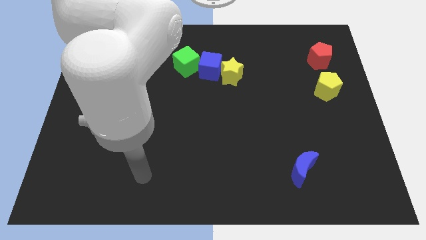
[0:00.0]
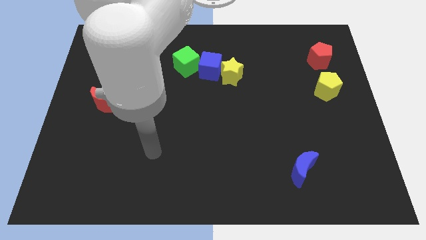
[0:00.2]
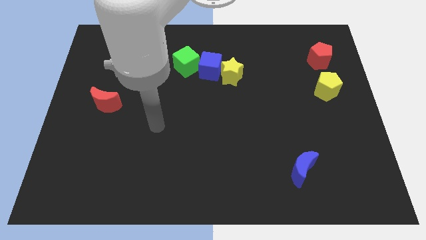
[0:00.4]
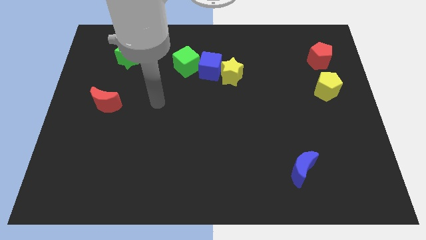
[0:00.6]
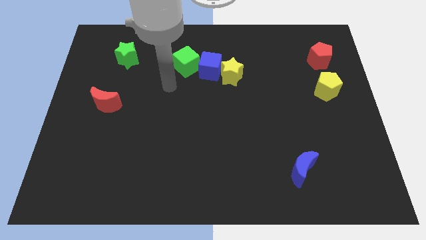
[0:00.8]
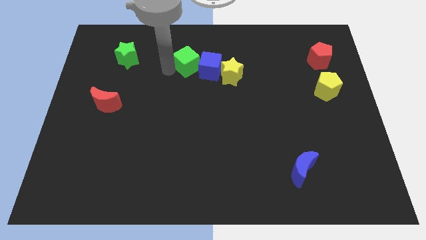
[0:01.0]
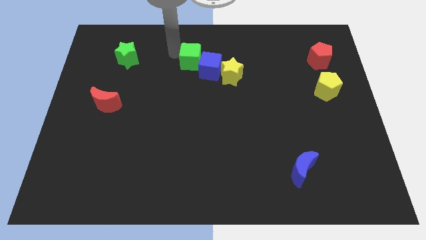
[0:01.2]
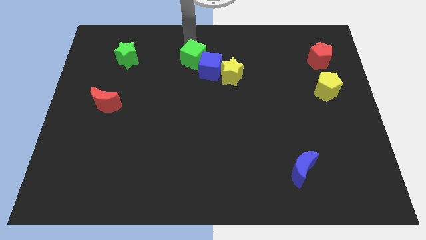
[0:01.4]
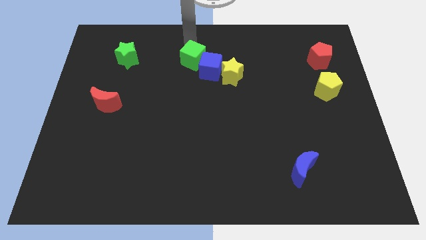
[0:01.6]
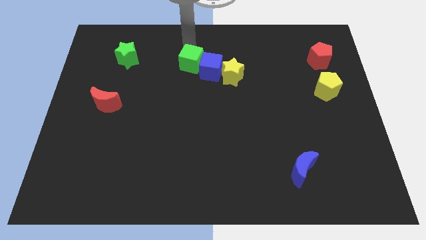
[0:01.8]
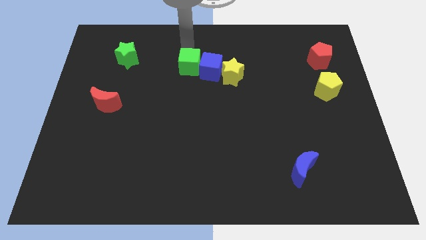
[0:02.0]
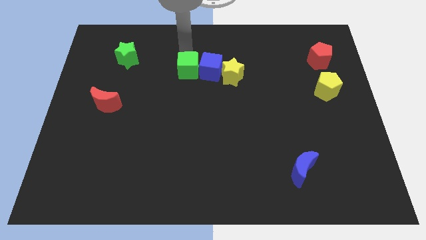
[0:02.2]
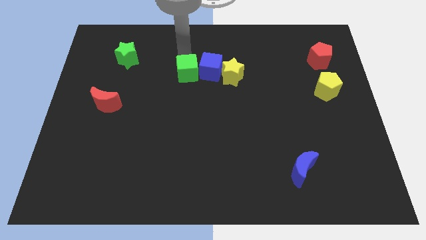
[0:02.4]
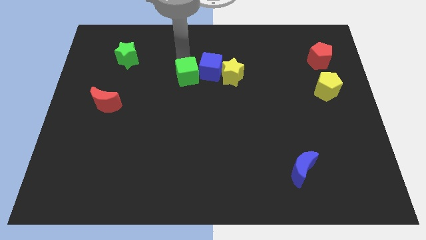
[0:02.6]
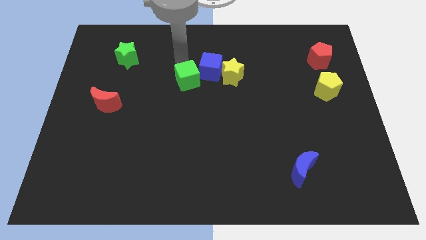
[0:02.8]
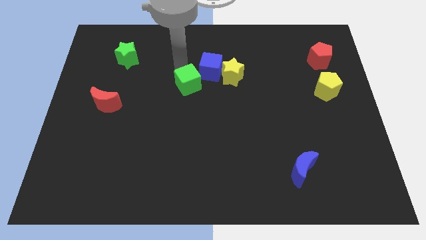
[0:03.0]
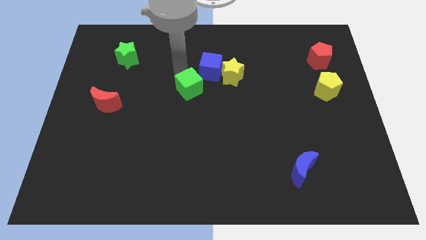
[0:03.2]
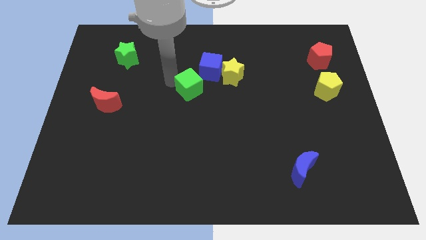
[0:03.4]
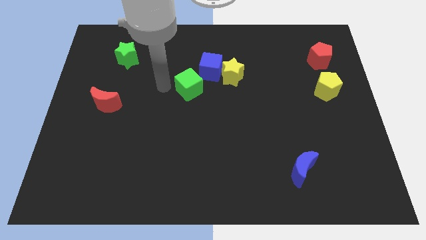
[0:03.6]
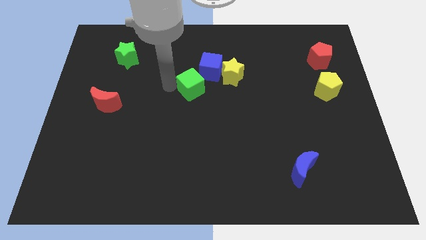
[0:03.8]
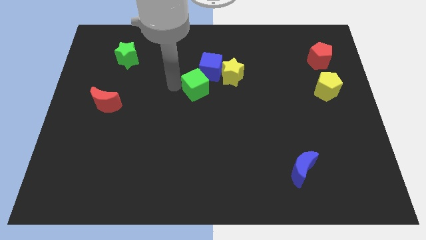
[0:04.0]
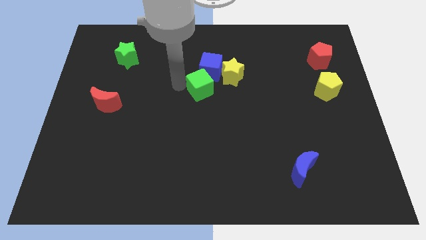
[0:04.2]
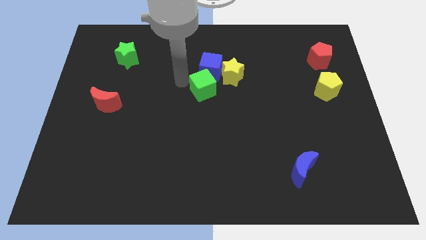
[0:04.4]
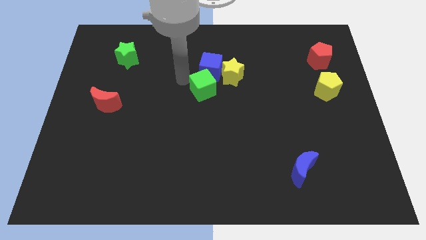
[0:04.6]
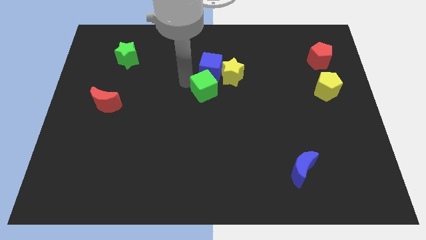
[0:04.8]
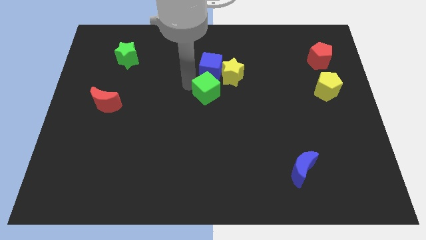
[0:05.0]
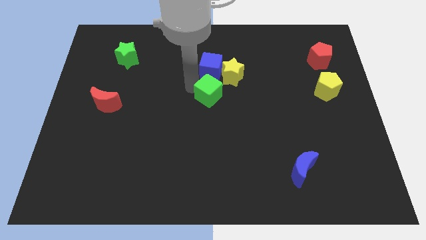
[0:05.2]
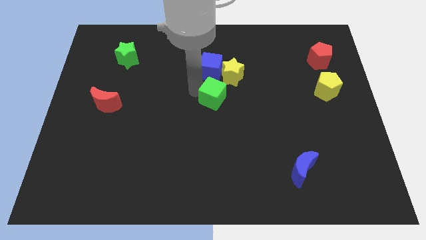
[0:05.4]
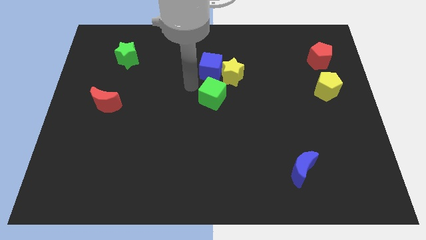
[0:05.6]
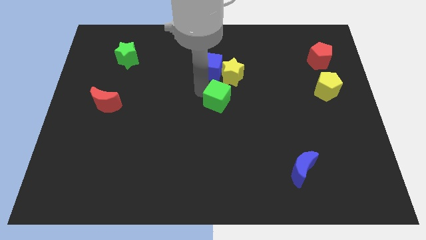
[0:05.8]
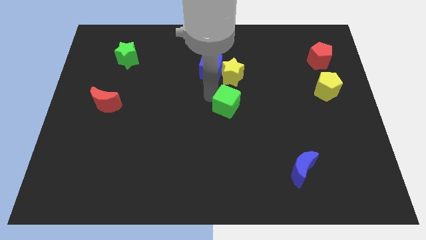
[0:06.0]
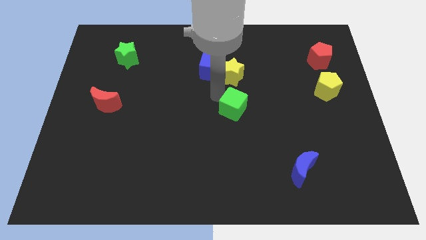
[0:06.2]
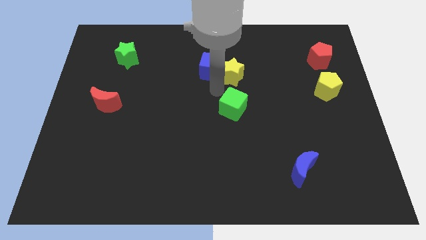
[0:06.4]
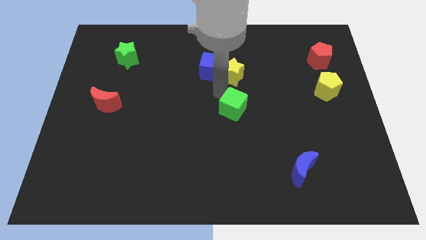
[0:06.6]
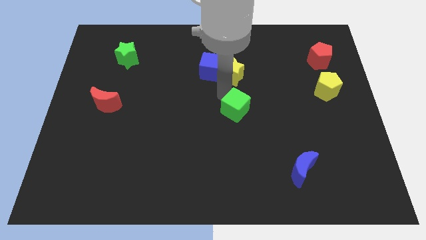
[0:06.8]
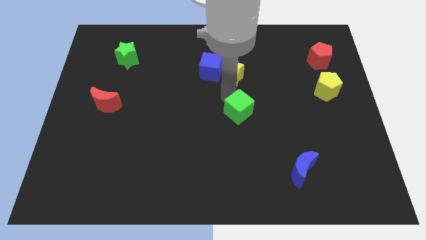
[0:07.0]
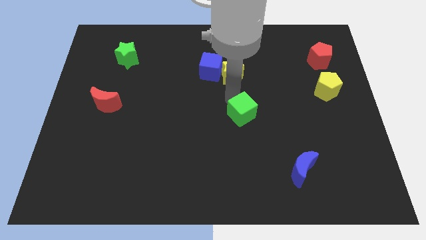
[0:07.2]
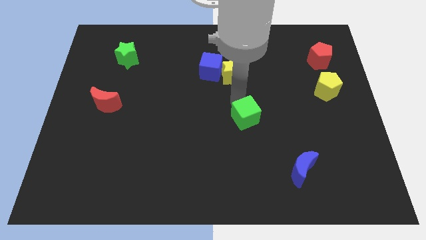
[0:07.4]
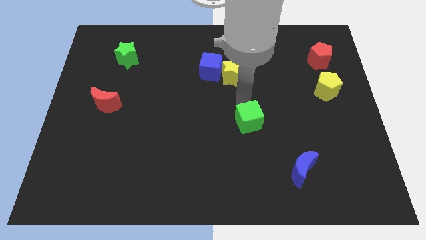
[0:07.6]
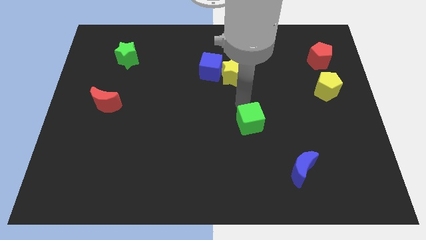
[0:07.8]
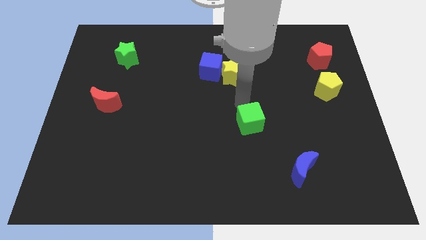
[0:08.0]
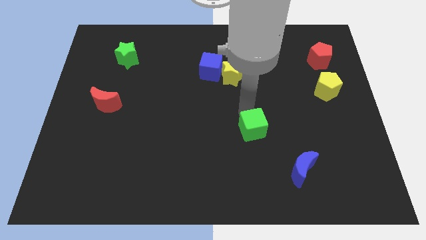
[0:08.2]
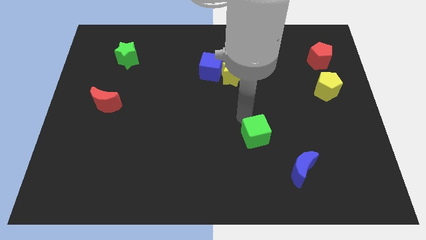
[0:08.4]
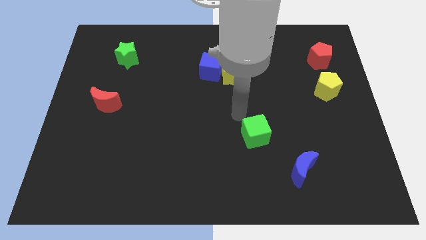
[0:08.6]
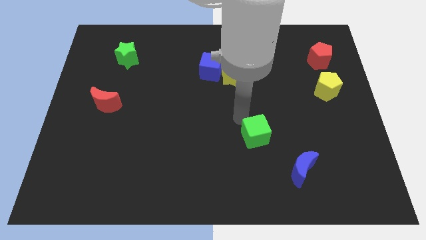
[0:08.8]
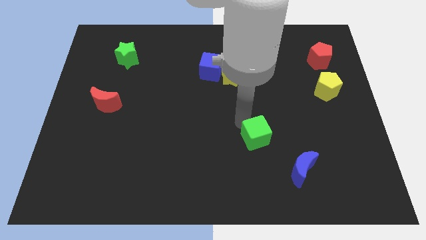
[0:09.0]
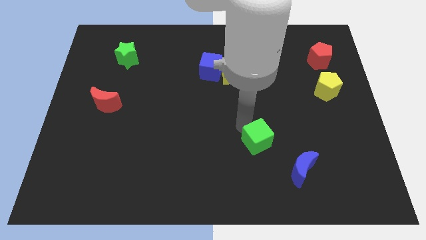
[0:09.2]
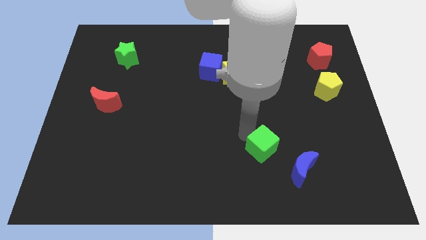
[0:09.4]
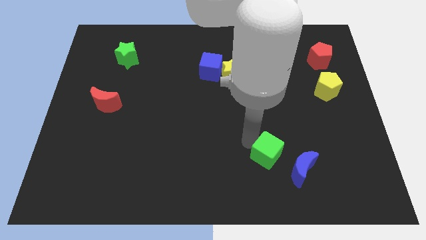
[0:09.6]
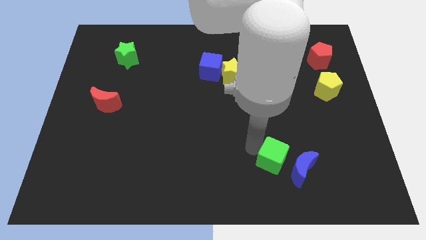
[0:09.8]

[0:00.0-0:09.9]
slide the green cube next to the blue moon

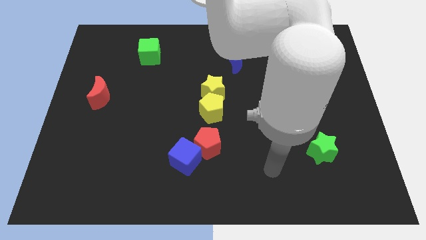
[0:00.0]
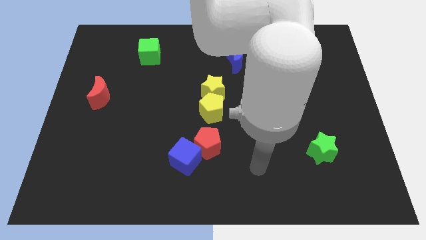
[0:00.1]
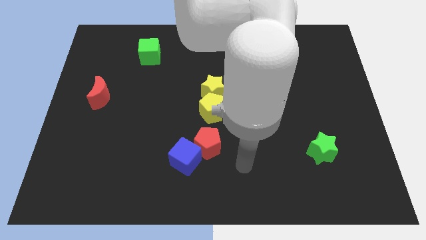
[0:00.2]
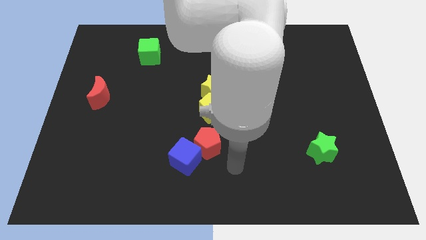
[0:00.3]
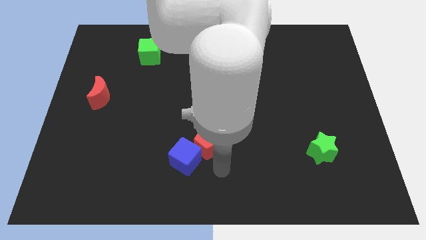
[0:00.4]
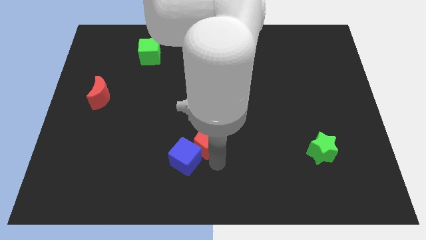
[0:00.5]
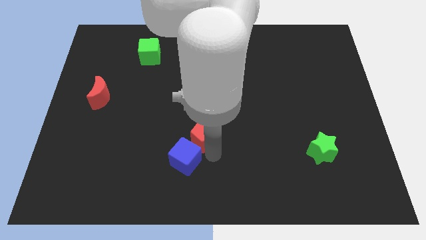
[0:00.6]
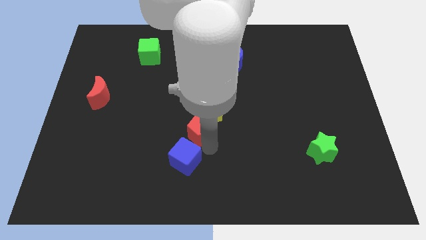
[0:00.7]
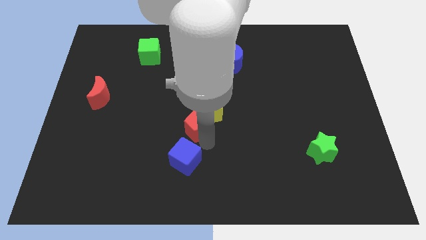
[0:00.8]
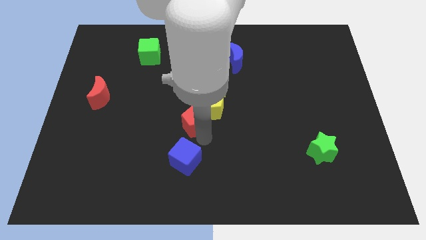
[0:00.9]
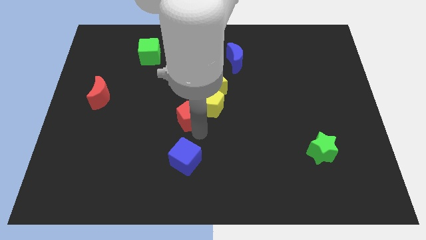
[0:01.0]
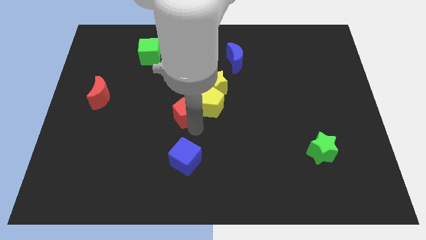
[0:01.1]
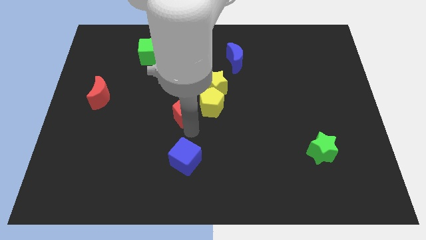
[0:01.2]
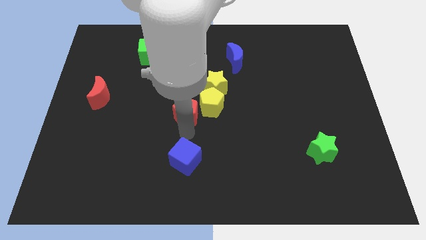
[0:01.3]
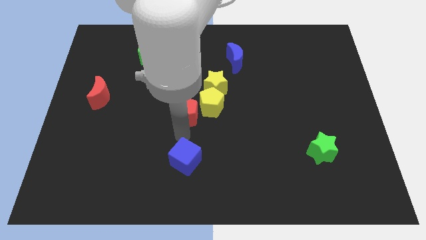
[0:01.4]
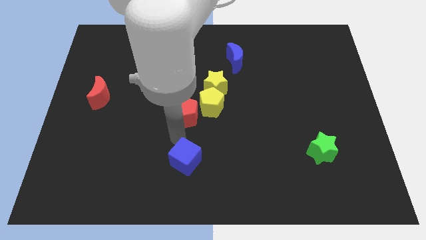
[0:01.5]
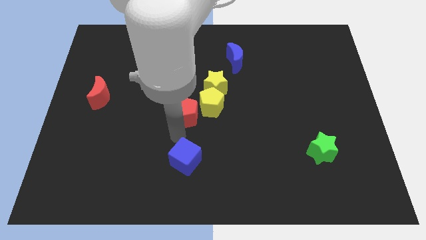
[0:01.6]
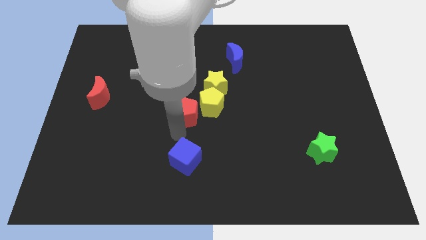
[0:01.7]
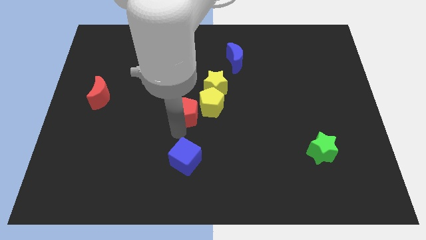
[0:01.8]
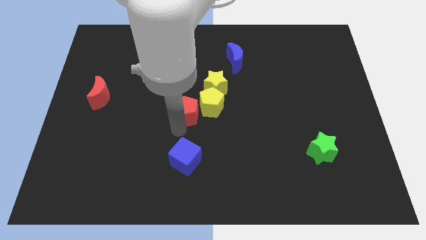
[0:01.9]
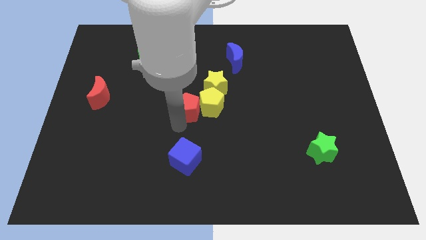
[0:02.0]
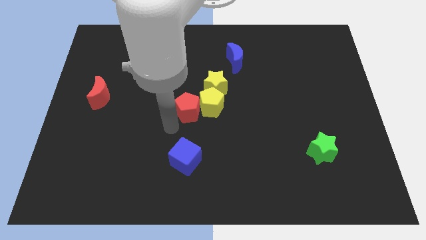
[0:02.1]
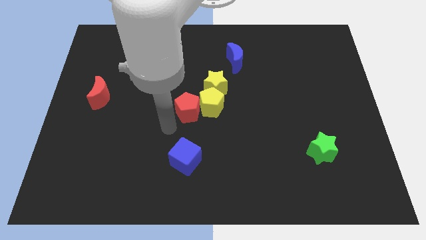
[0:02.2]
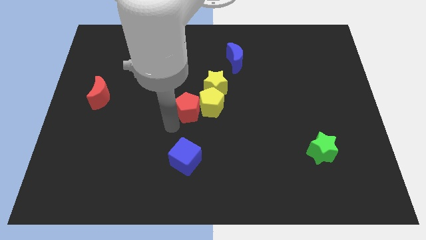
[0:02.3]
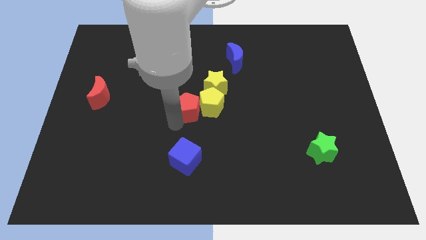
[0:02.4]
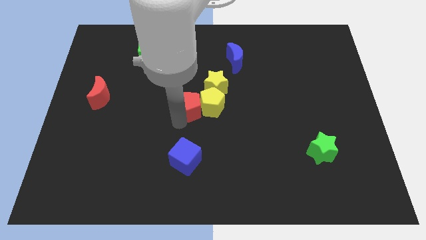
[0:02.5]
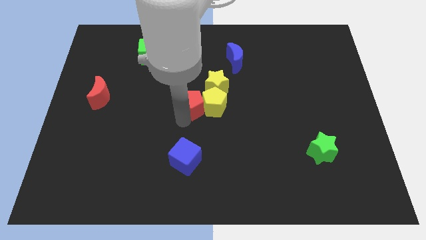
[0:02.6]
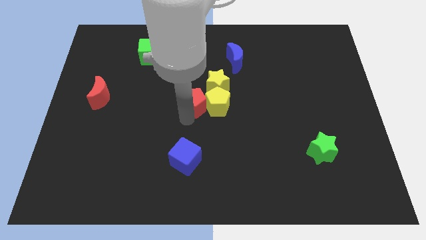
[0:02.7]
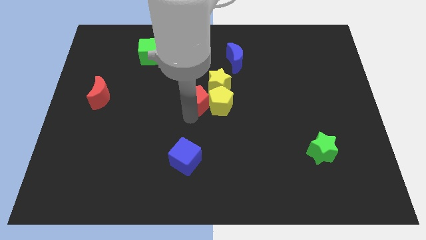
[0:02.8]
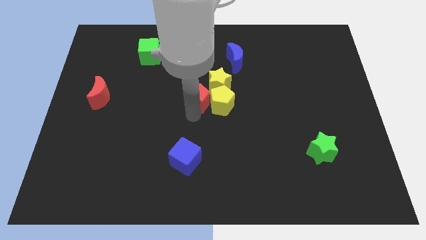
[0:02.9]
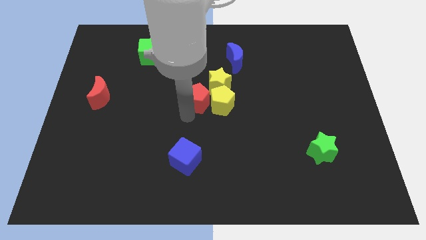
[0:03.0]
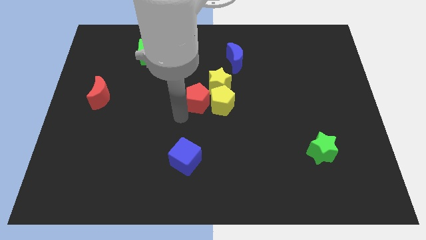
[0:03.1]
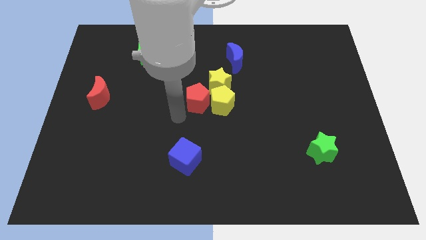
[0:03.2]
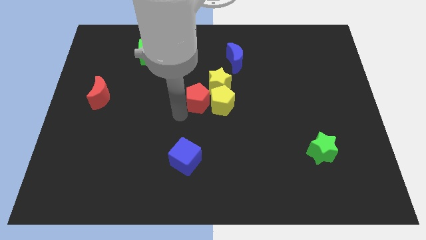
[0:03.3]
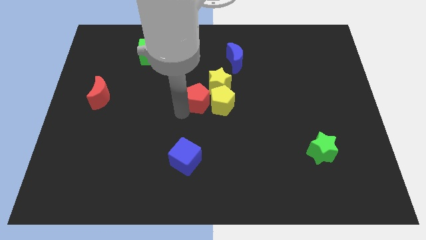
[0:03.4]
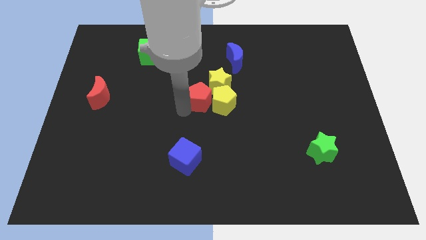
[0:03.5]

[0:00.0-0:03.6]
slide the red pentagon close to the yellow star
